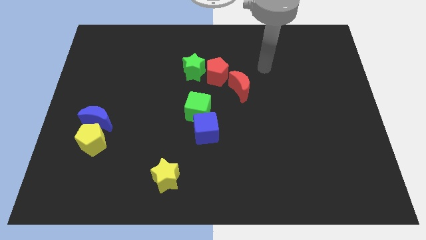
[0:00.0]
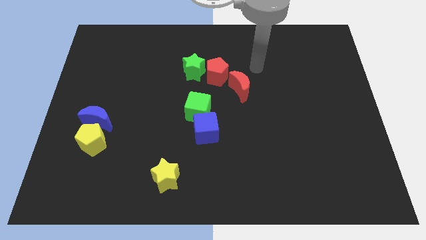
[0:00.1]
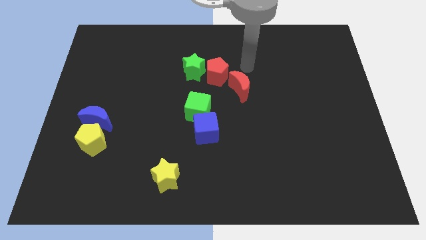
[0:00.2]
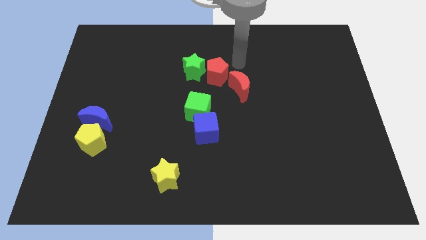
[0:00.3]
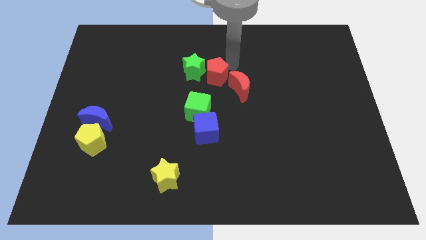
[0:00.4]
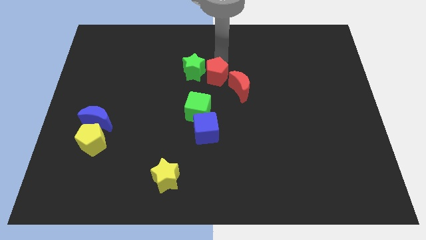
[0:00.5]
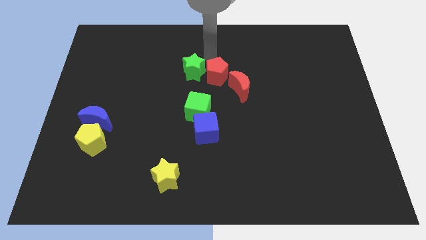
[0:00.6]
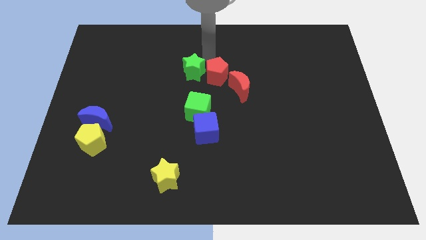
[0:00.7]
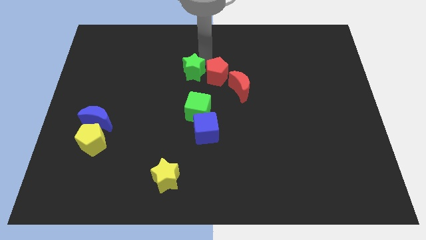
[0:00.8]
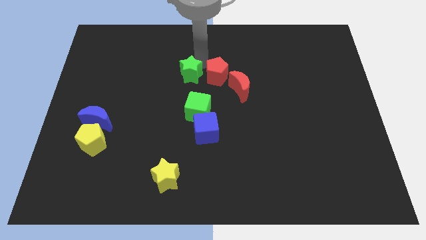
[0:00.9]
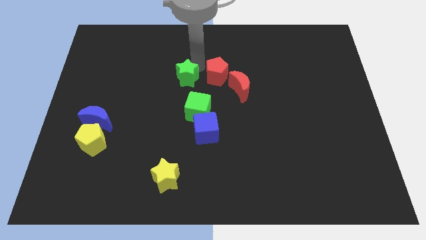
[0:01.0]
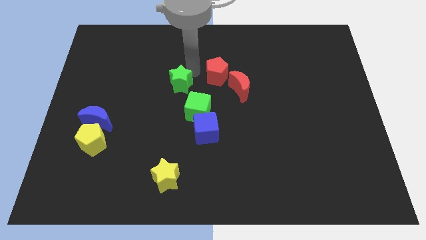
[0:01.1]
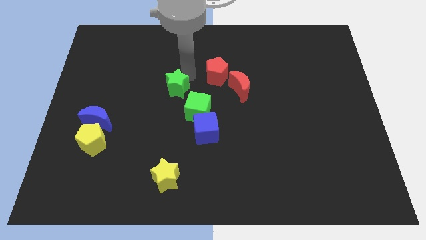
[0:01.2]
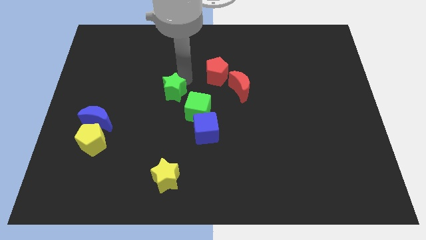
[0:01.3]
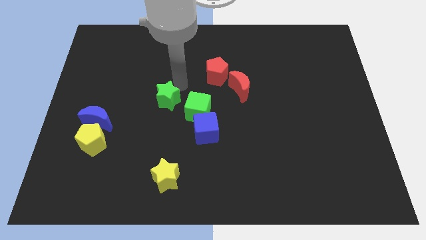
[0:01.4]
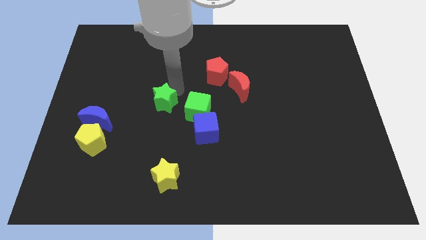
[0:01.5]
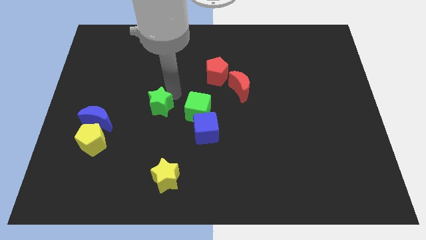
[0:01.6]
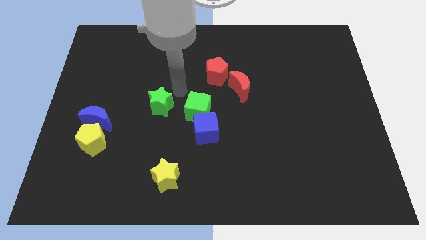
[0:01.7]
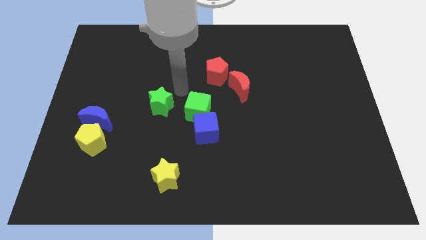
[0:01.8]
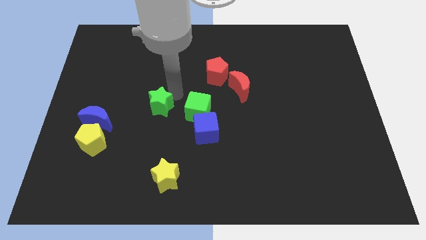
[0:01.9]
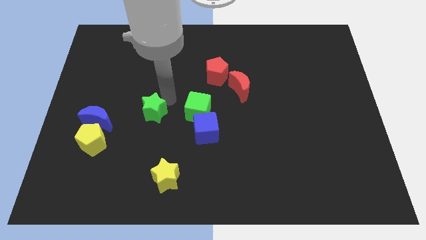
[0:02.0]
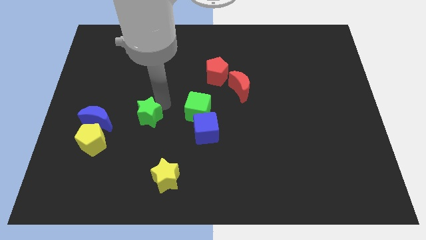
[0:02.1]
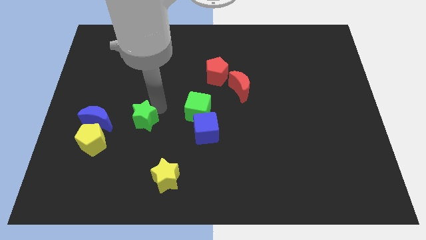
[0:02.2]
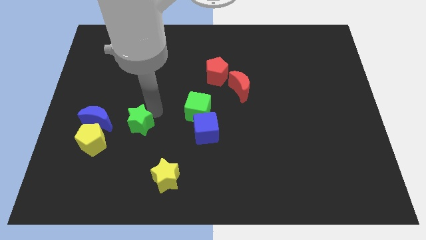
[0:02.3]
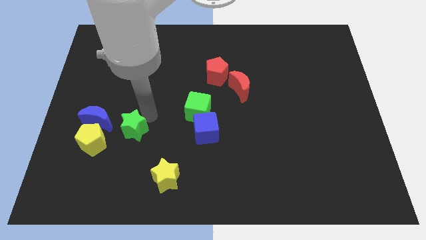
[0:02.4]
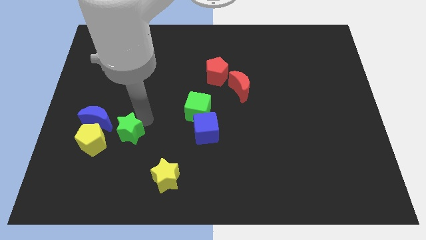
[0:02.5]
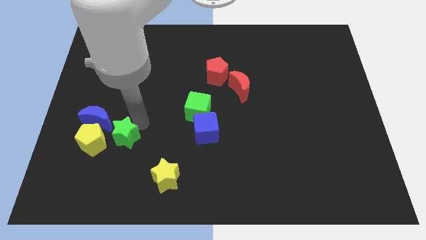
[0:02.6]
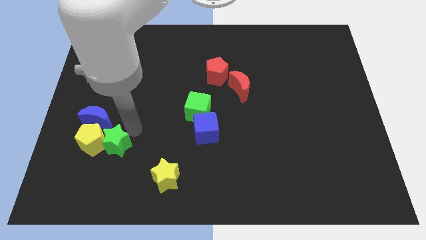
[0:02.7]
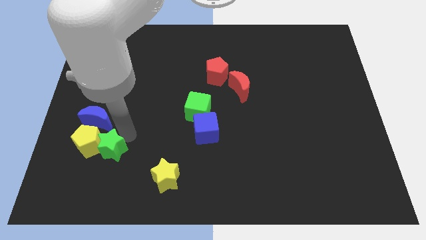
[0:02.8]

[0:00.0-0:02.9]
move the green star below the blue moon

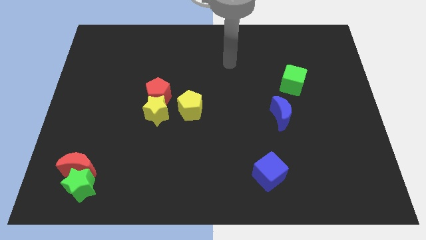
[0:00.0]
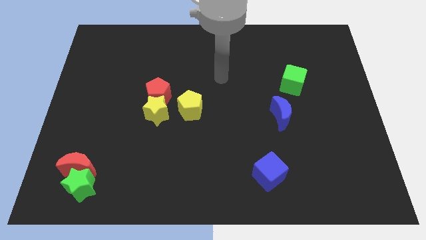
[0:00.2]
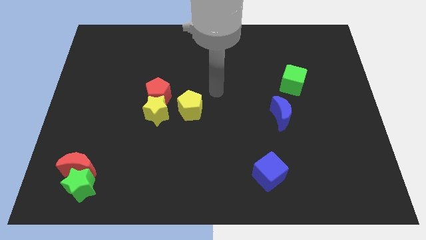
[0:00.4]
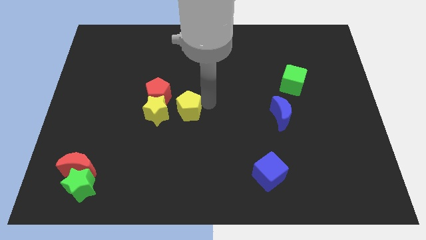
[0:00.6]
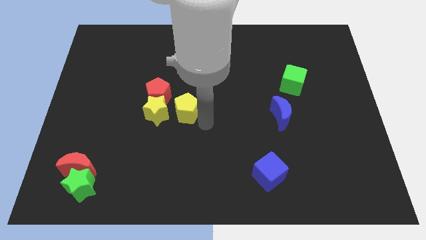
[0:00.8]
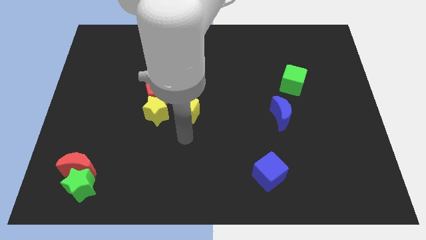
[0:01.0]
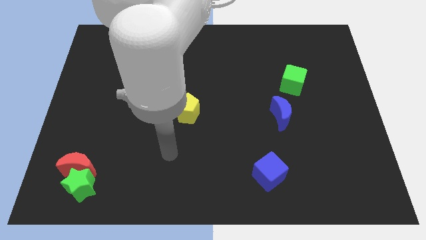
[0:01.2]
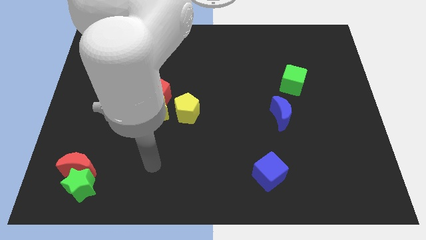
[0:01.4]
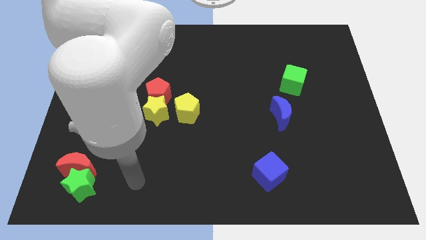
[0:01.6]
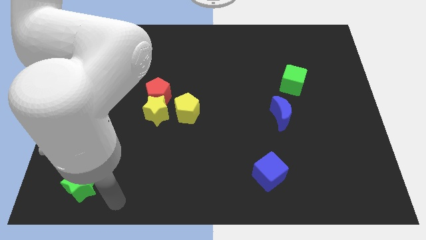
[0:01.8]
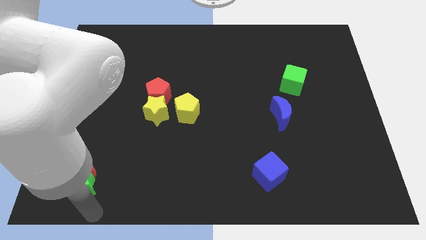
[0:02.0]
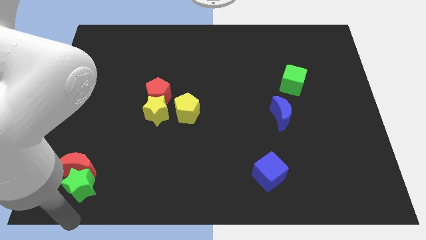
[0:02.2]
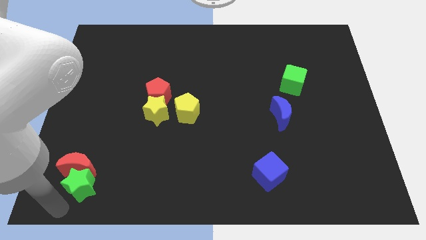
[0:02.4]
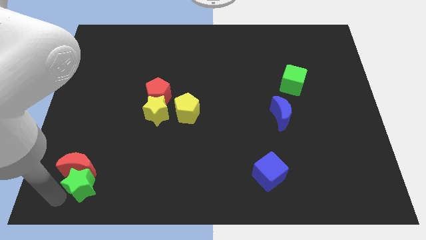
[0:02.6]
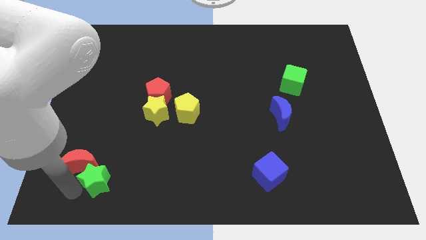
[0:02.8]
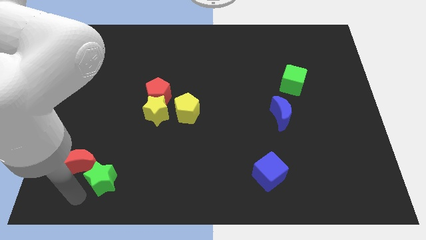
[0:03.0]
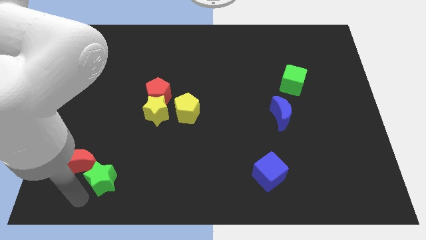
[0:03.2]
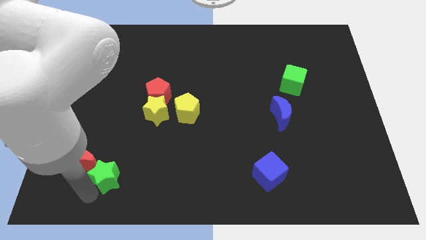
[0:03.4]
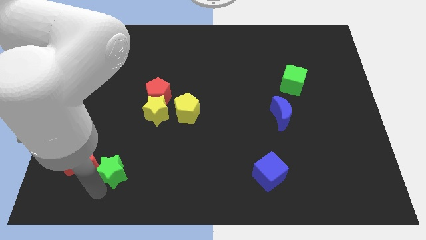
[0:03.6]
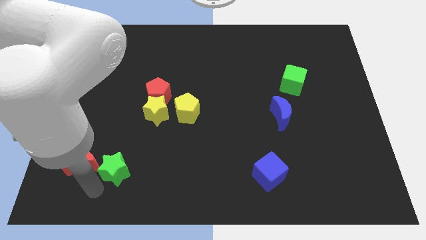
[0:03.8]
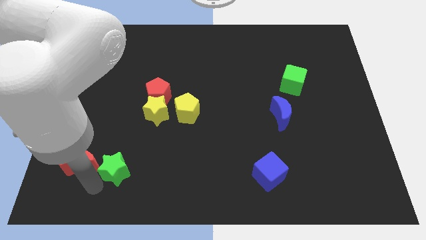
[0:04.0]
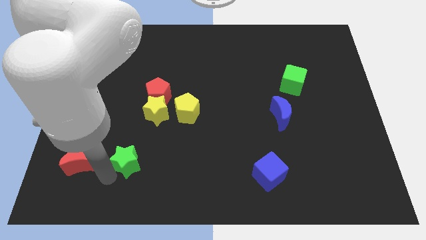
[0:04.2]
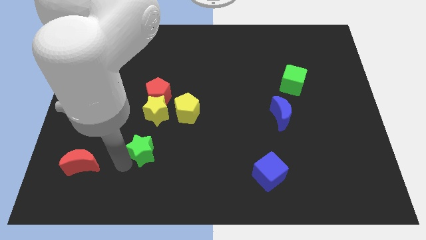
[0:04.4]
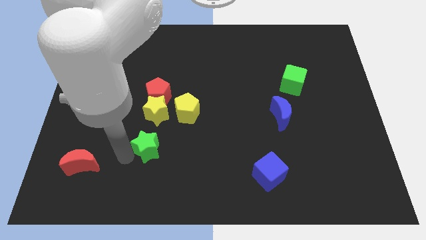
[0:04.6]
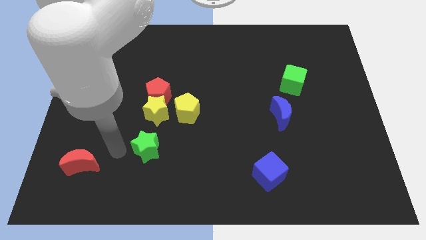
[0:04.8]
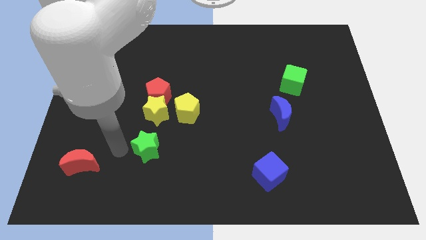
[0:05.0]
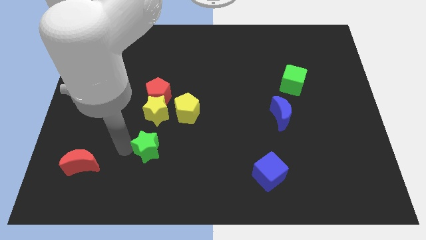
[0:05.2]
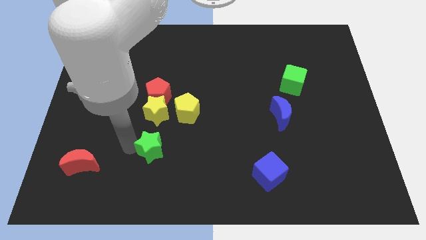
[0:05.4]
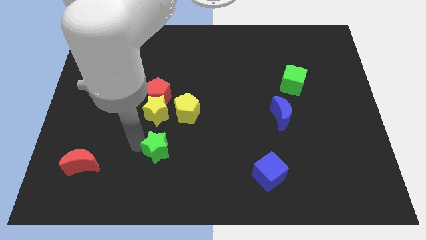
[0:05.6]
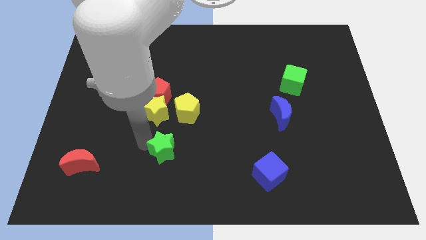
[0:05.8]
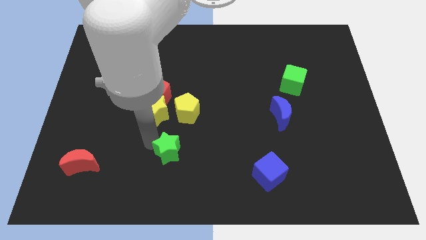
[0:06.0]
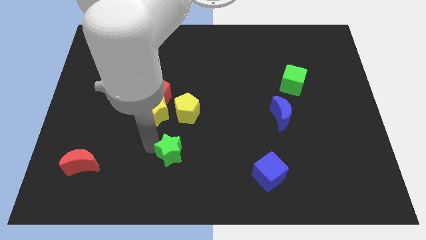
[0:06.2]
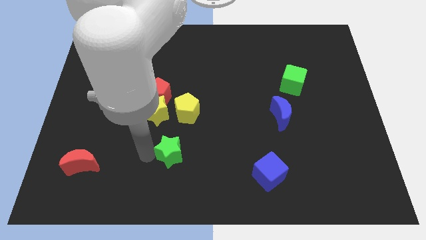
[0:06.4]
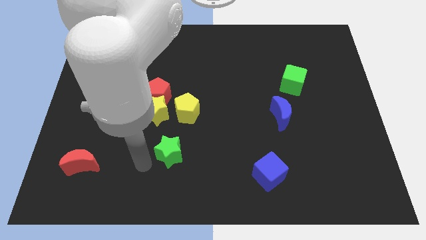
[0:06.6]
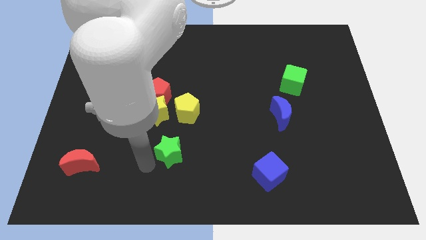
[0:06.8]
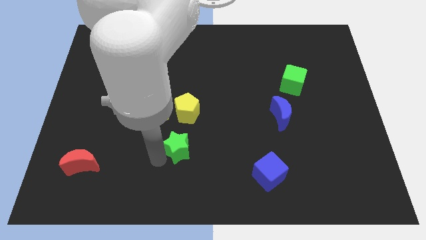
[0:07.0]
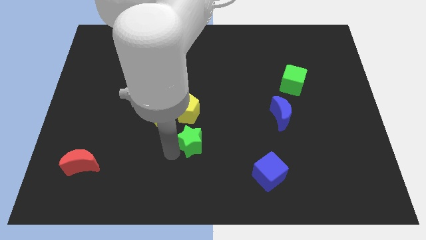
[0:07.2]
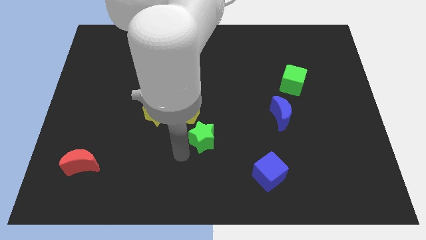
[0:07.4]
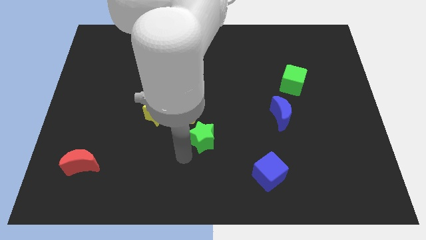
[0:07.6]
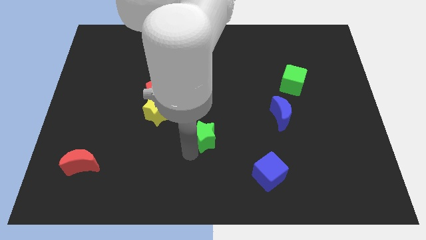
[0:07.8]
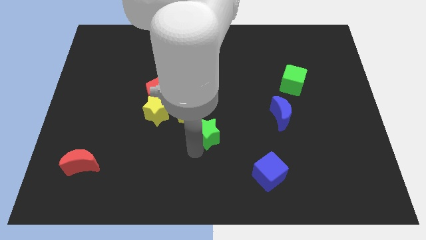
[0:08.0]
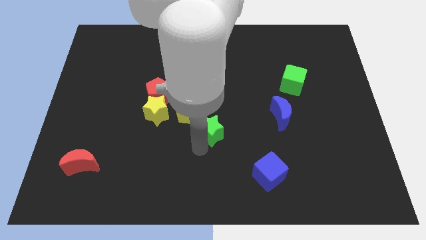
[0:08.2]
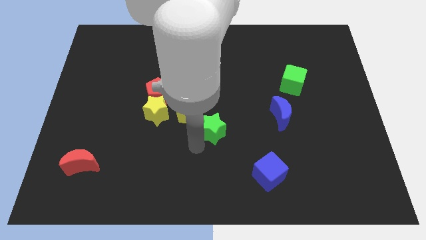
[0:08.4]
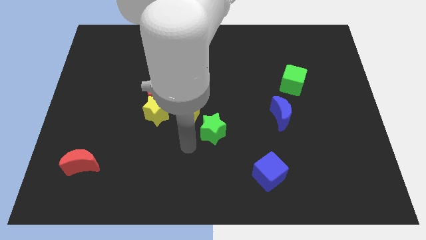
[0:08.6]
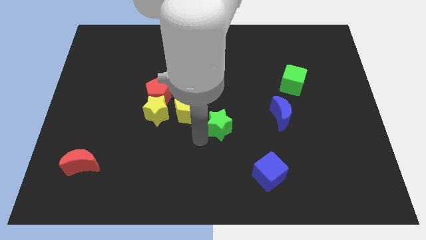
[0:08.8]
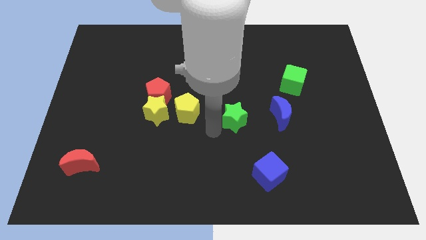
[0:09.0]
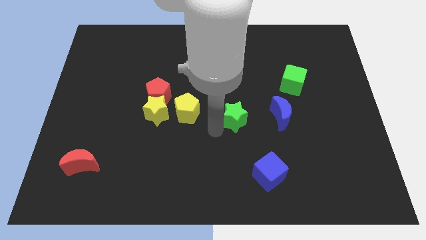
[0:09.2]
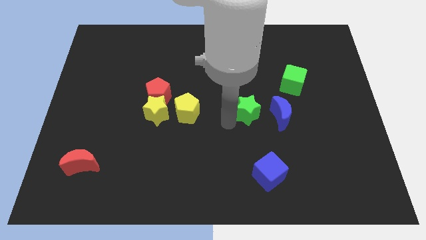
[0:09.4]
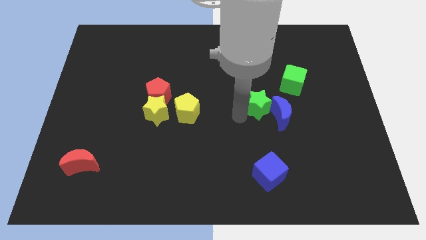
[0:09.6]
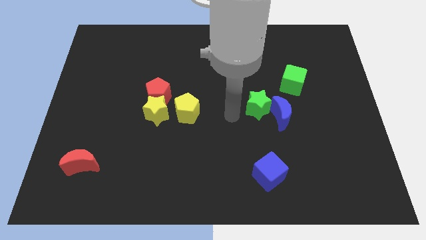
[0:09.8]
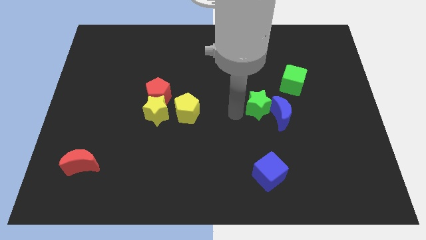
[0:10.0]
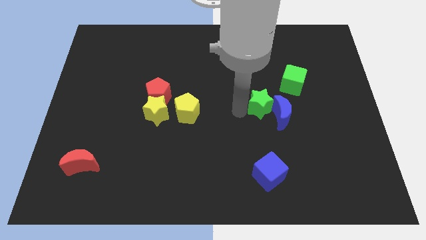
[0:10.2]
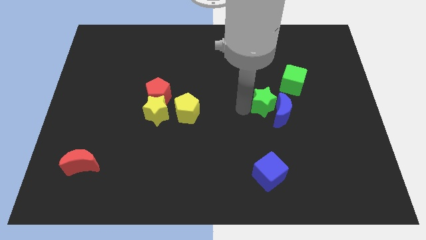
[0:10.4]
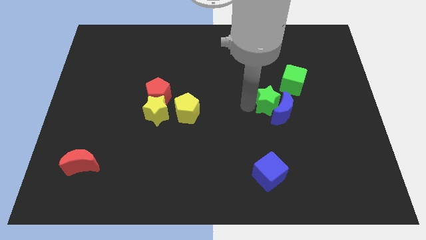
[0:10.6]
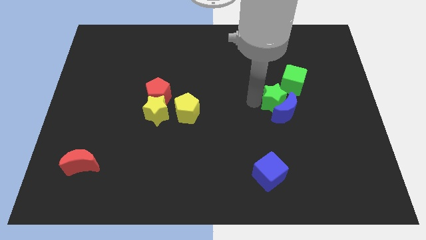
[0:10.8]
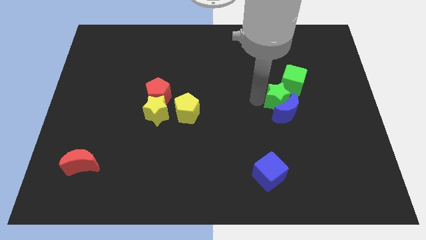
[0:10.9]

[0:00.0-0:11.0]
put the green star diagonally up and to the right of the blue moon
